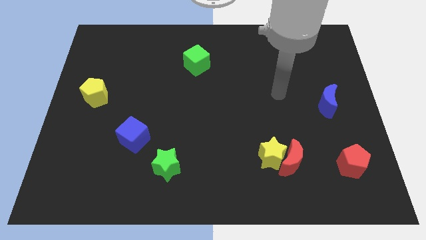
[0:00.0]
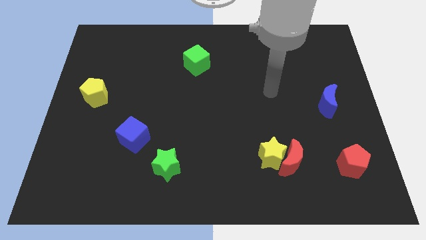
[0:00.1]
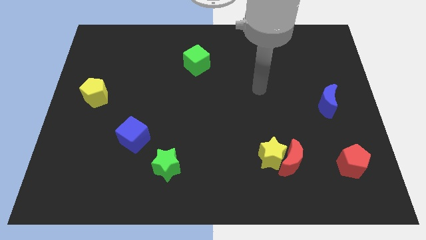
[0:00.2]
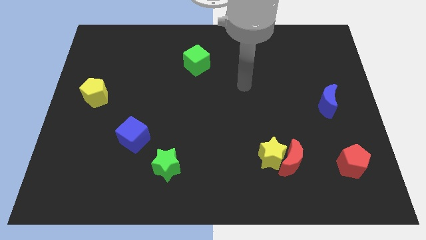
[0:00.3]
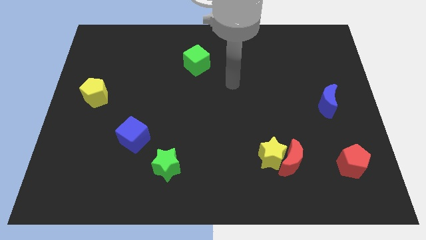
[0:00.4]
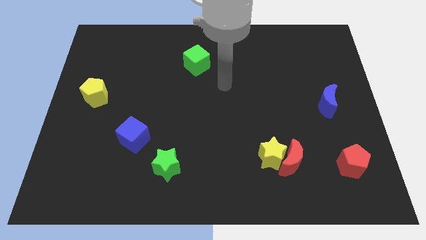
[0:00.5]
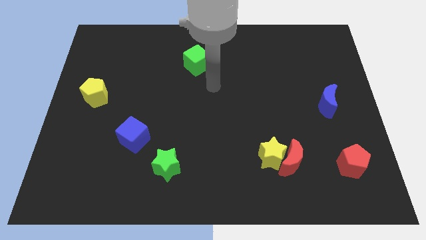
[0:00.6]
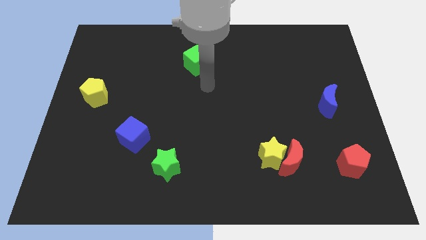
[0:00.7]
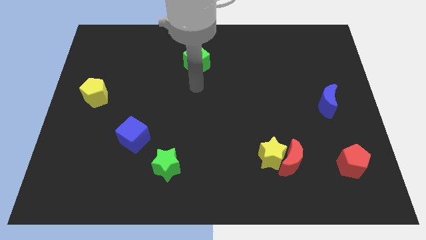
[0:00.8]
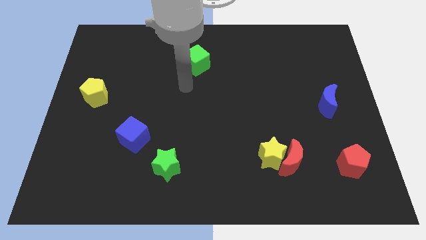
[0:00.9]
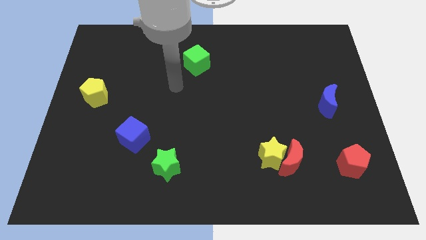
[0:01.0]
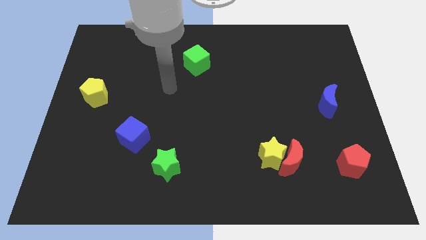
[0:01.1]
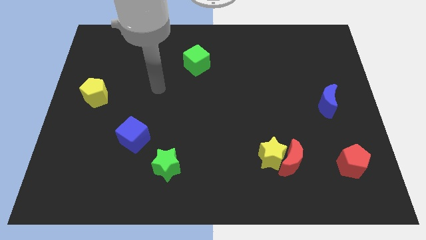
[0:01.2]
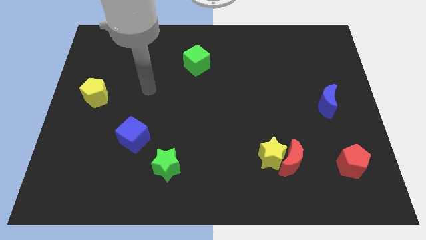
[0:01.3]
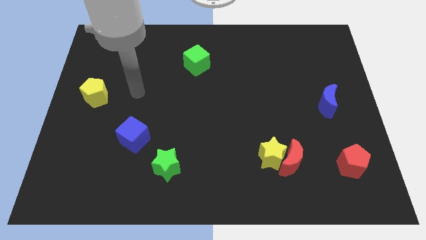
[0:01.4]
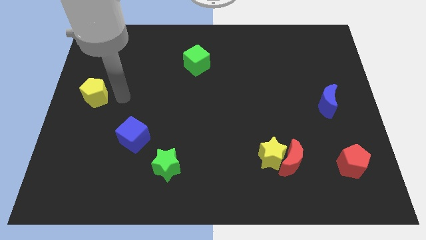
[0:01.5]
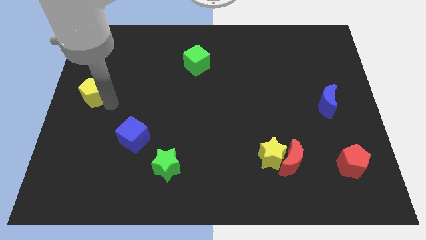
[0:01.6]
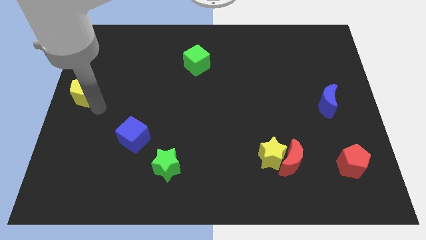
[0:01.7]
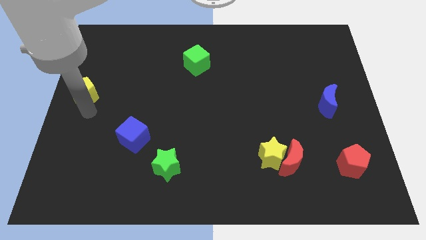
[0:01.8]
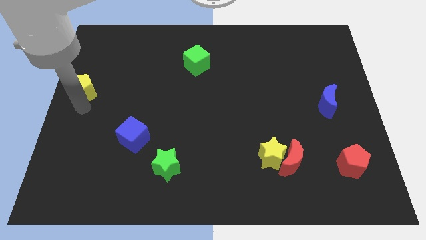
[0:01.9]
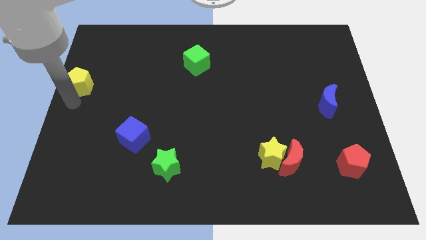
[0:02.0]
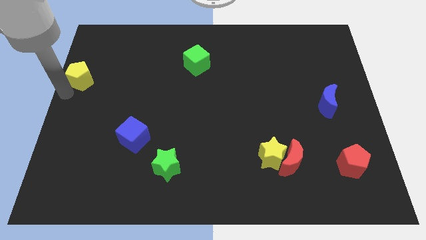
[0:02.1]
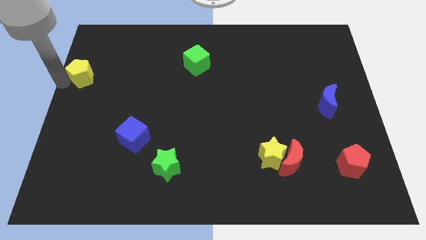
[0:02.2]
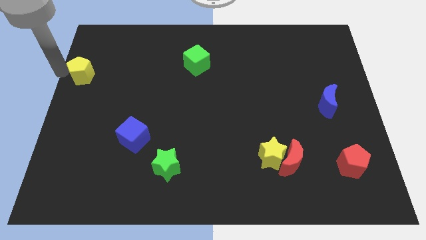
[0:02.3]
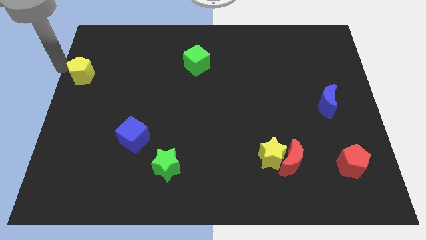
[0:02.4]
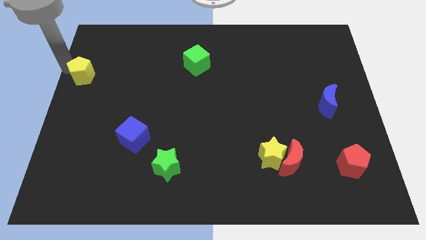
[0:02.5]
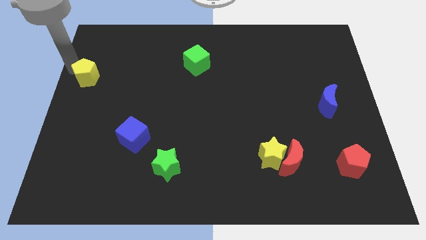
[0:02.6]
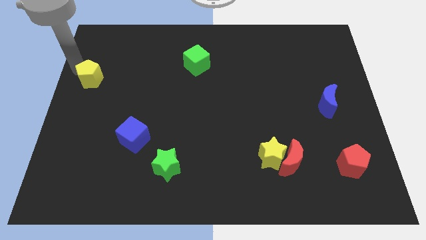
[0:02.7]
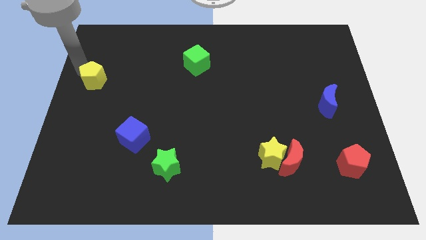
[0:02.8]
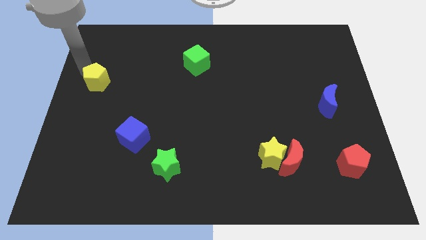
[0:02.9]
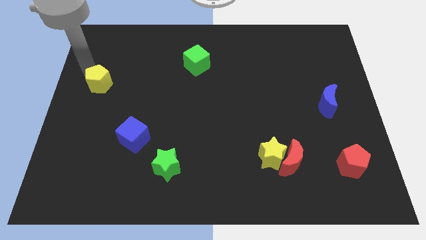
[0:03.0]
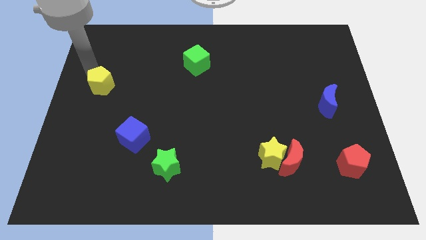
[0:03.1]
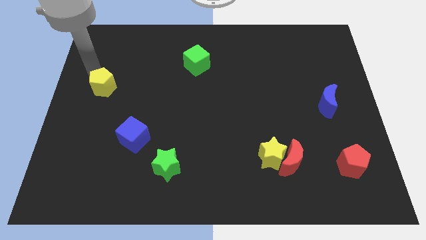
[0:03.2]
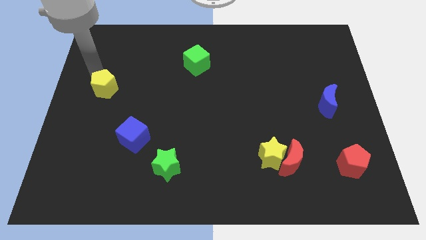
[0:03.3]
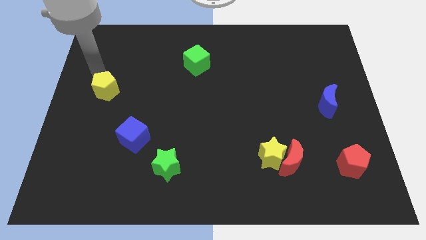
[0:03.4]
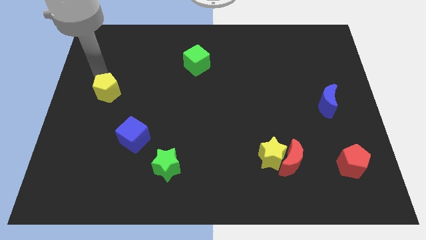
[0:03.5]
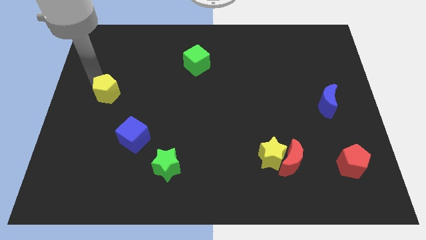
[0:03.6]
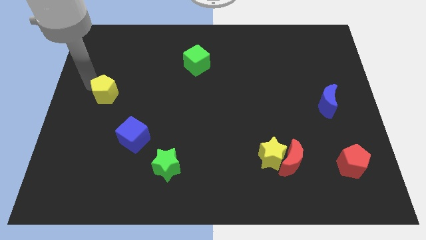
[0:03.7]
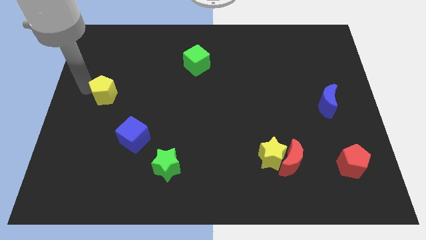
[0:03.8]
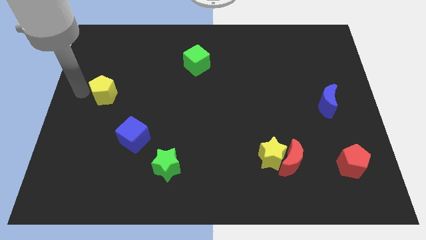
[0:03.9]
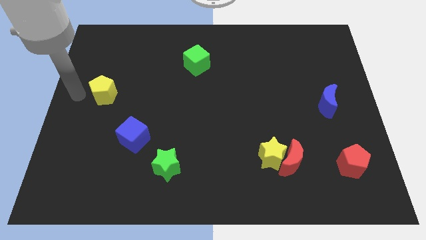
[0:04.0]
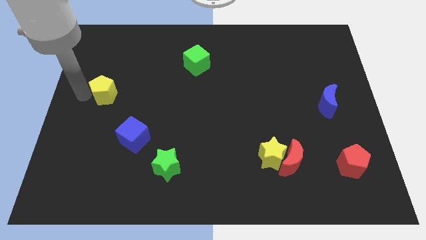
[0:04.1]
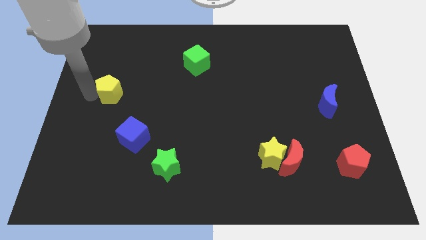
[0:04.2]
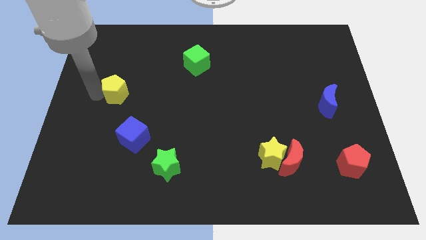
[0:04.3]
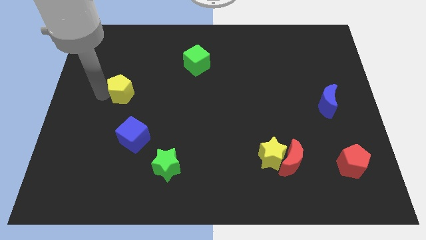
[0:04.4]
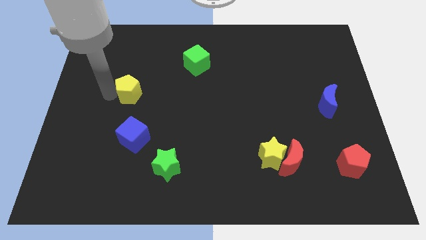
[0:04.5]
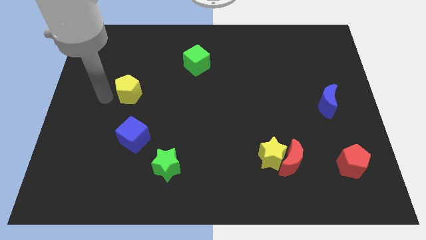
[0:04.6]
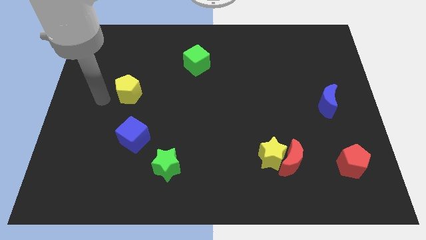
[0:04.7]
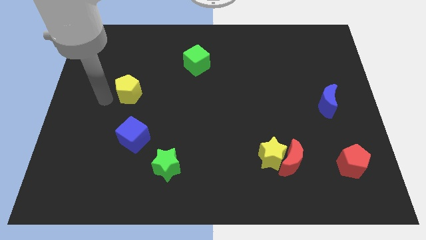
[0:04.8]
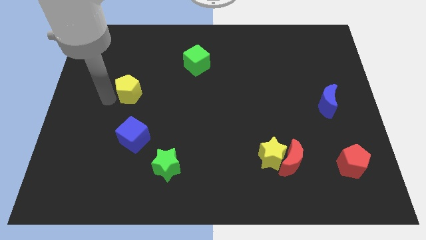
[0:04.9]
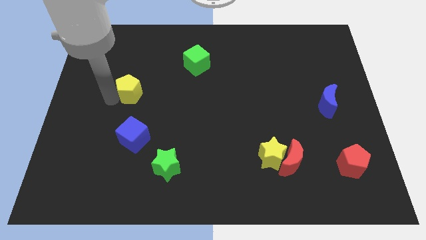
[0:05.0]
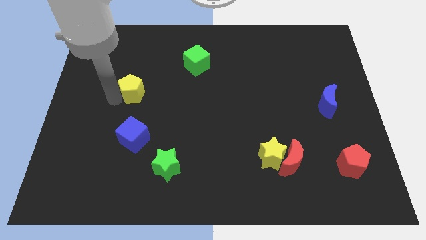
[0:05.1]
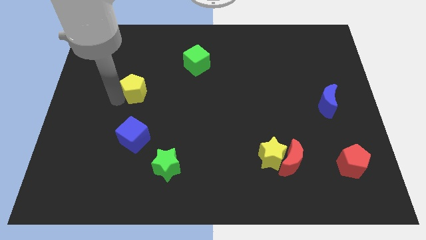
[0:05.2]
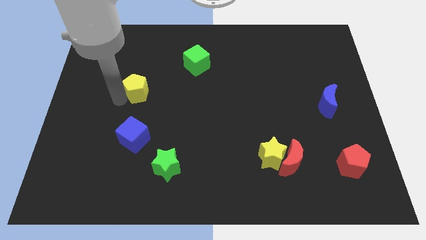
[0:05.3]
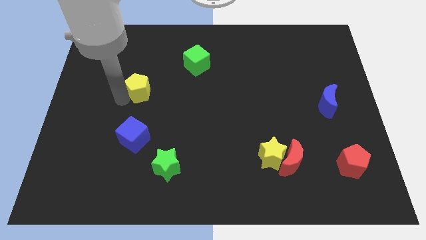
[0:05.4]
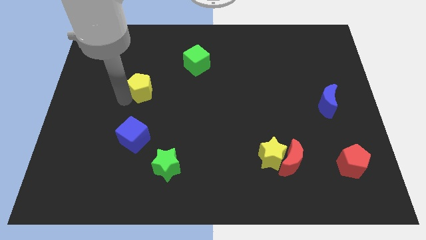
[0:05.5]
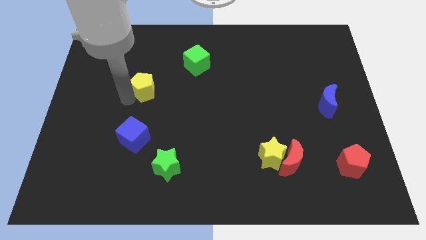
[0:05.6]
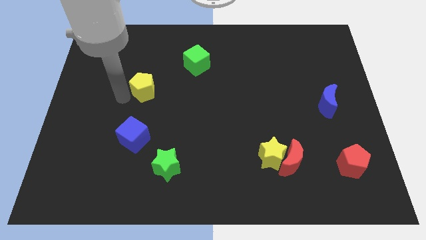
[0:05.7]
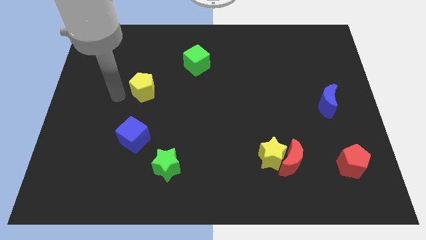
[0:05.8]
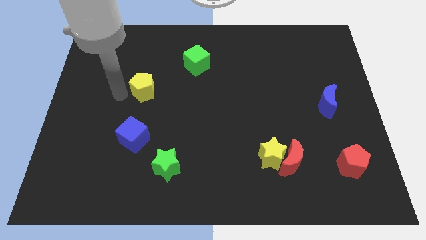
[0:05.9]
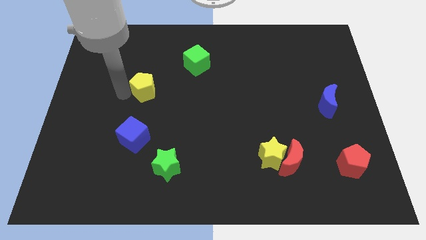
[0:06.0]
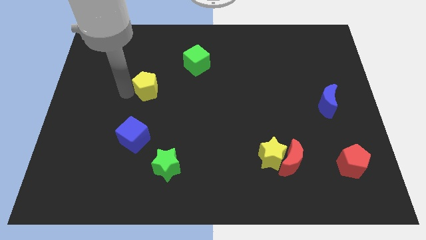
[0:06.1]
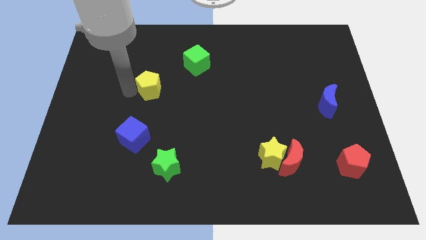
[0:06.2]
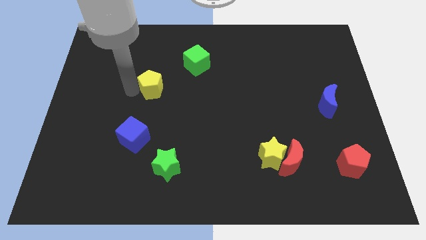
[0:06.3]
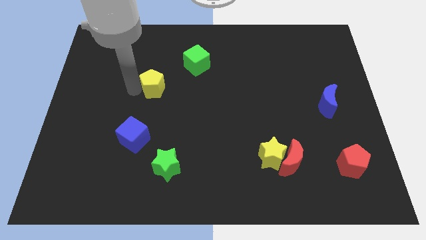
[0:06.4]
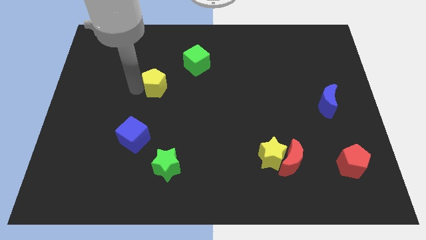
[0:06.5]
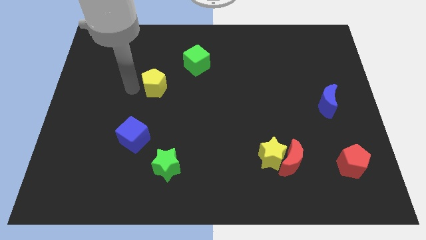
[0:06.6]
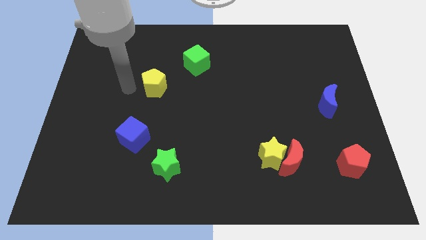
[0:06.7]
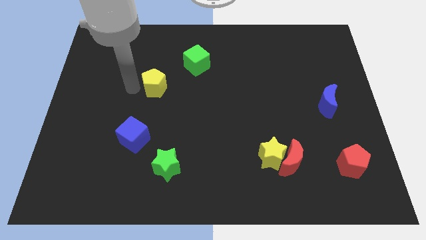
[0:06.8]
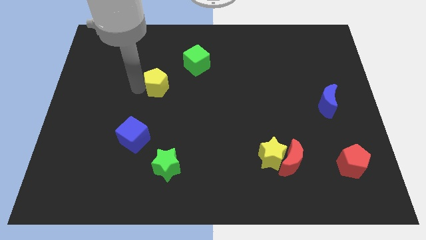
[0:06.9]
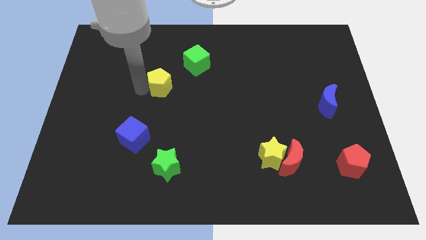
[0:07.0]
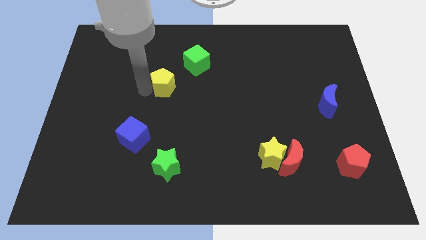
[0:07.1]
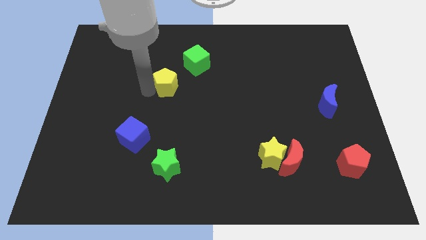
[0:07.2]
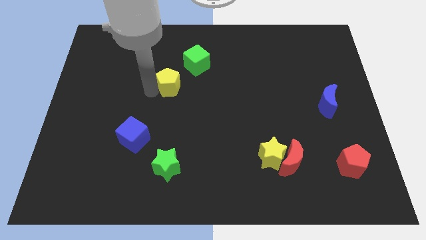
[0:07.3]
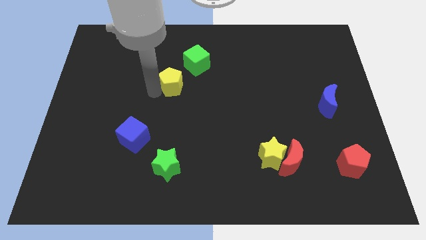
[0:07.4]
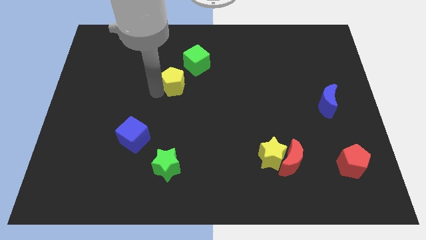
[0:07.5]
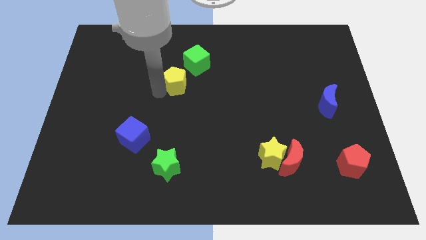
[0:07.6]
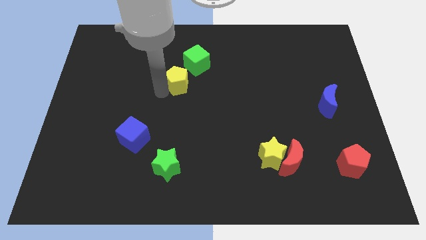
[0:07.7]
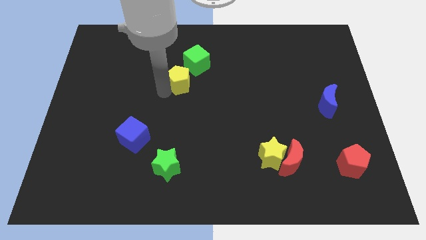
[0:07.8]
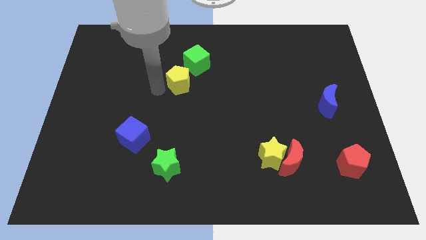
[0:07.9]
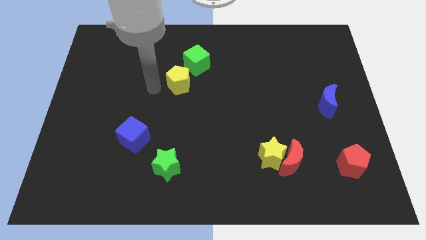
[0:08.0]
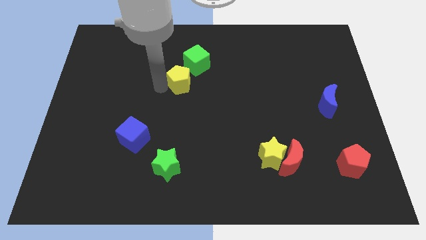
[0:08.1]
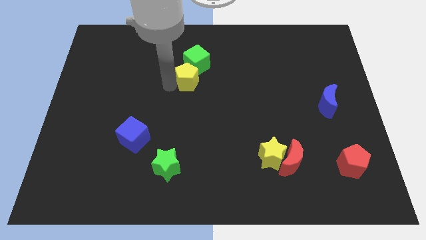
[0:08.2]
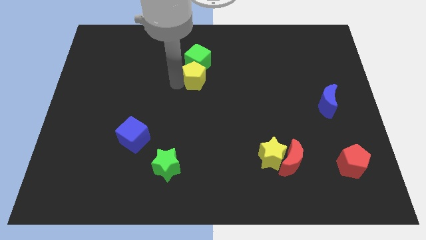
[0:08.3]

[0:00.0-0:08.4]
put the yellow pentagon diagonally down and to the right of the green cube
